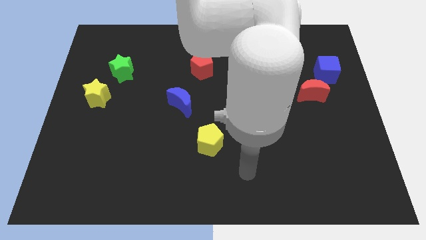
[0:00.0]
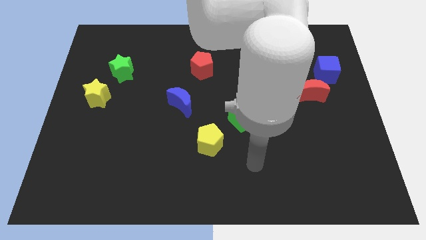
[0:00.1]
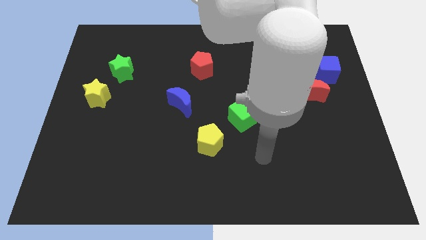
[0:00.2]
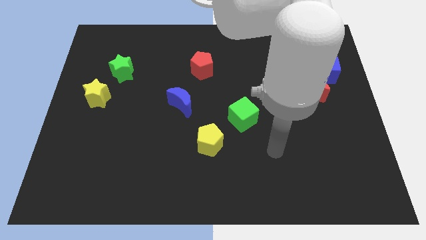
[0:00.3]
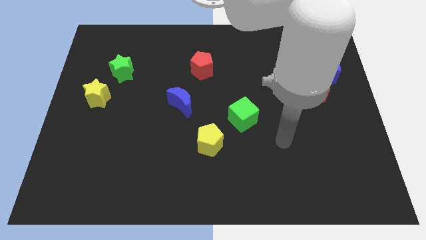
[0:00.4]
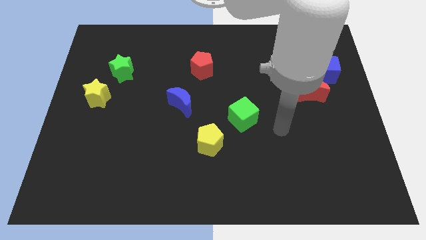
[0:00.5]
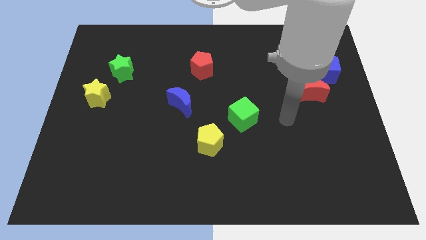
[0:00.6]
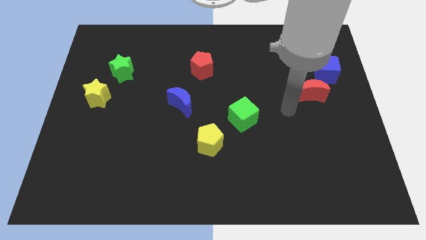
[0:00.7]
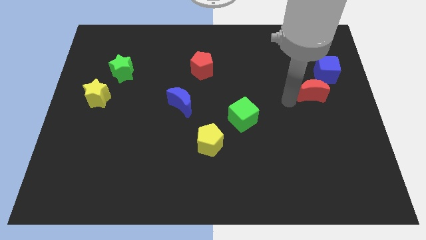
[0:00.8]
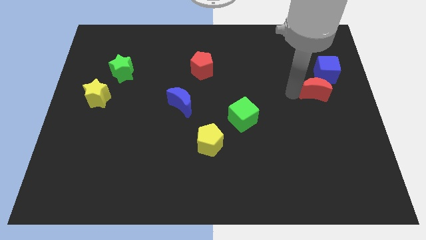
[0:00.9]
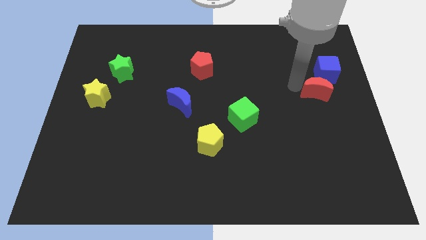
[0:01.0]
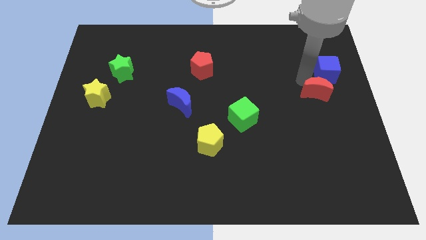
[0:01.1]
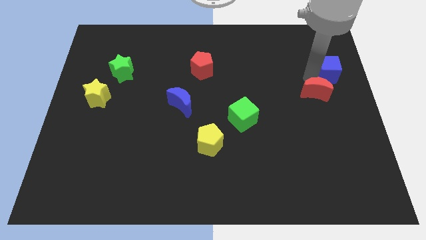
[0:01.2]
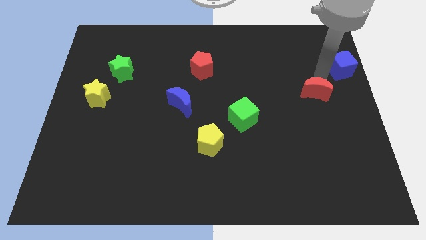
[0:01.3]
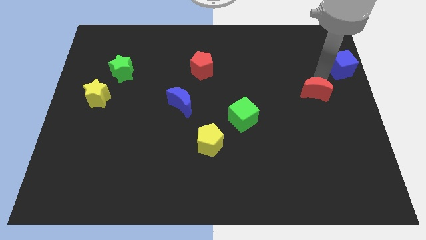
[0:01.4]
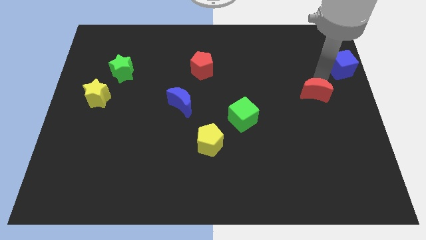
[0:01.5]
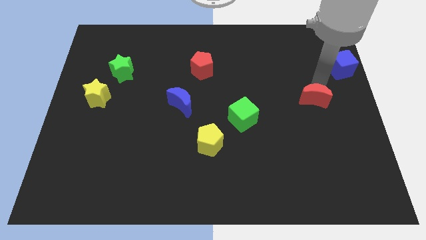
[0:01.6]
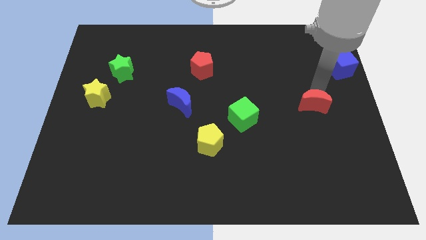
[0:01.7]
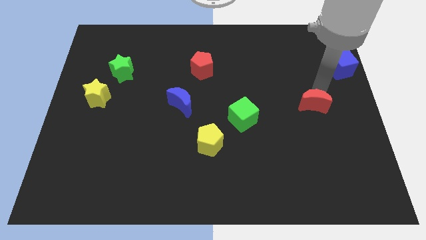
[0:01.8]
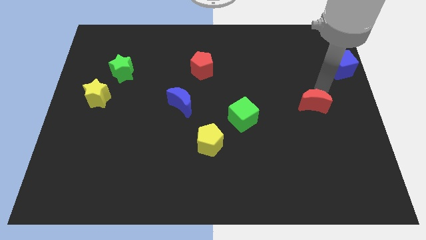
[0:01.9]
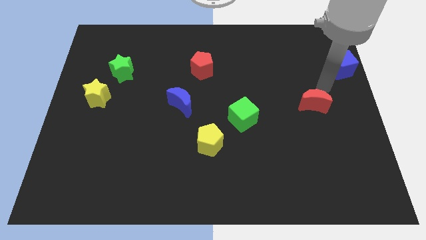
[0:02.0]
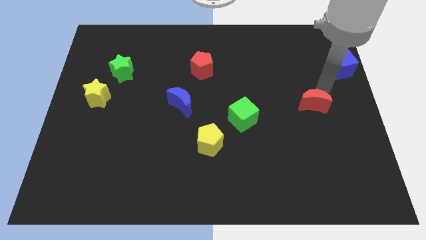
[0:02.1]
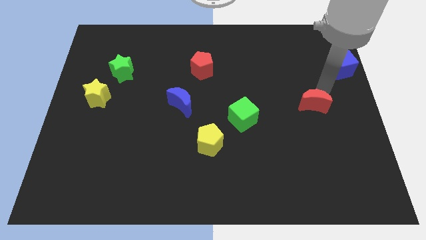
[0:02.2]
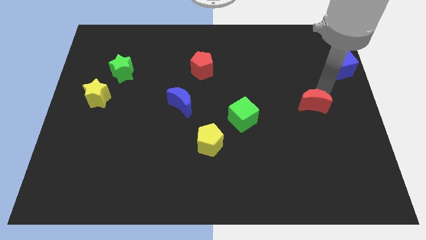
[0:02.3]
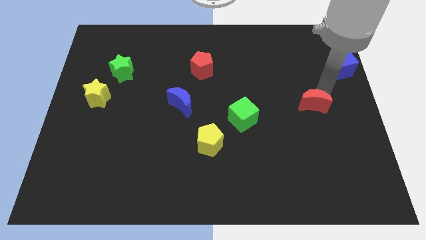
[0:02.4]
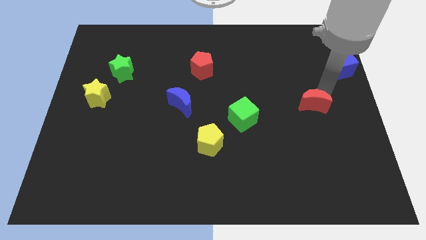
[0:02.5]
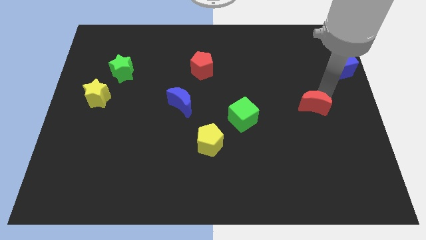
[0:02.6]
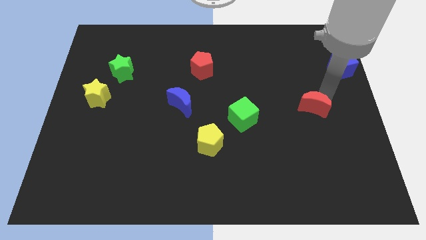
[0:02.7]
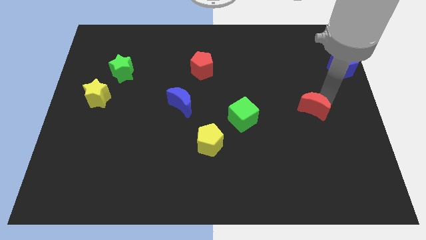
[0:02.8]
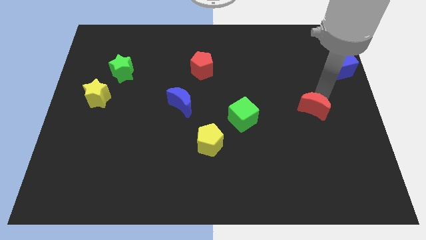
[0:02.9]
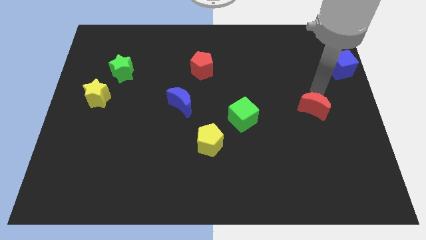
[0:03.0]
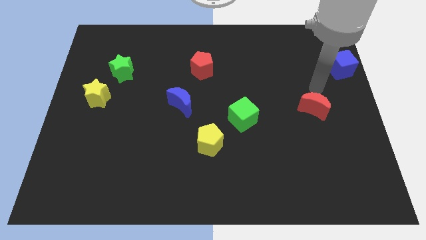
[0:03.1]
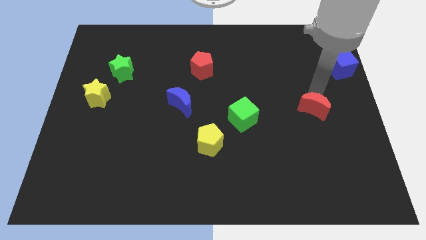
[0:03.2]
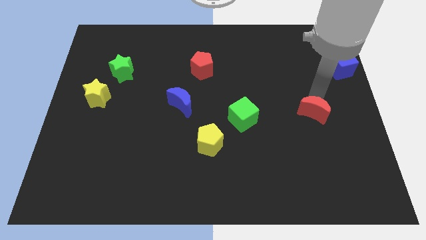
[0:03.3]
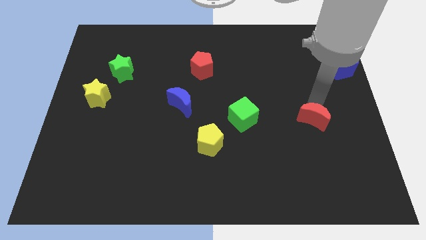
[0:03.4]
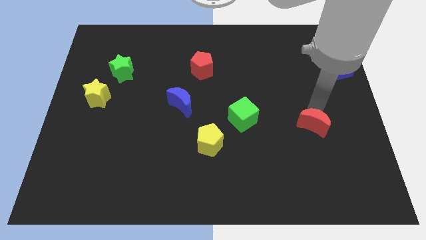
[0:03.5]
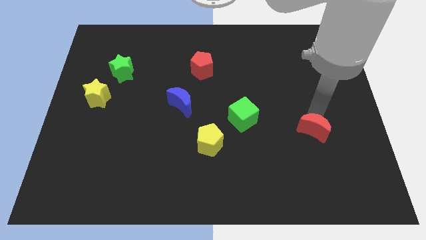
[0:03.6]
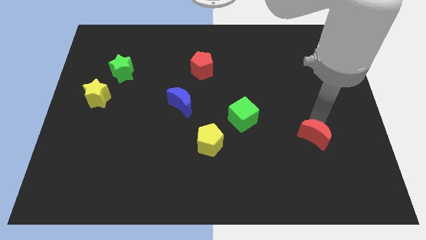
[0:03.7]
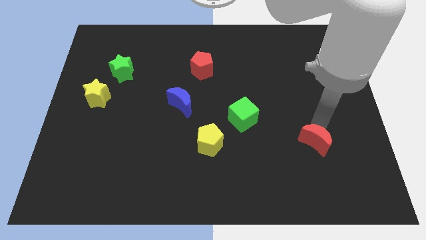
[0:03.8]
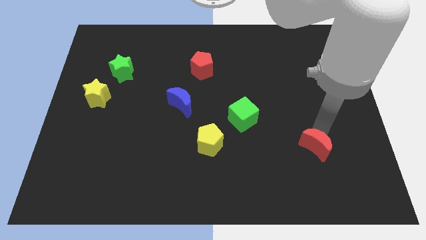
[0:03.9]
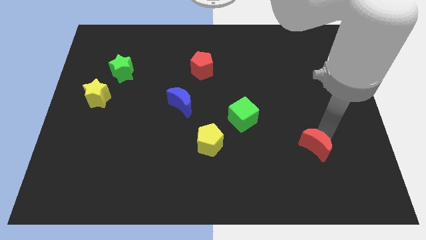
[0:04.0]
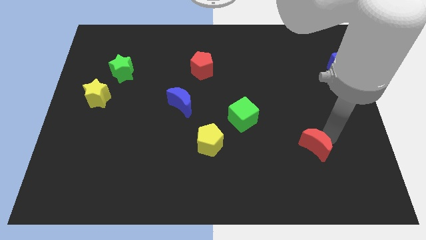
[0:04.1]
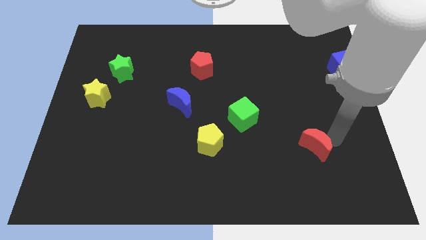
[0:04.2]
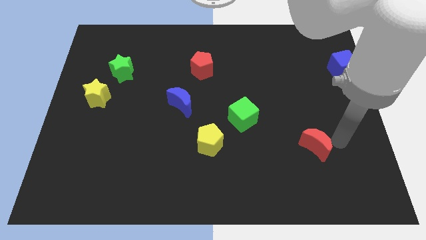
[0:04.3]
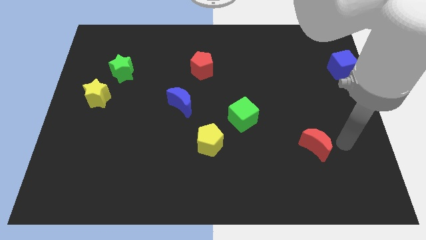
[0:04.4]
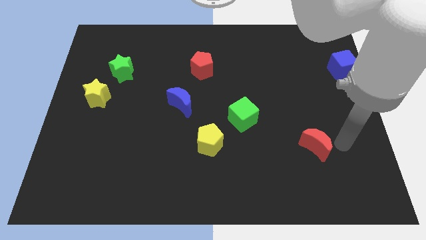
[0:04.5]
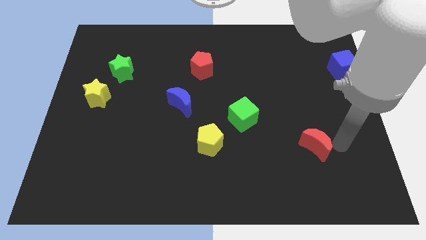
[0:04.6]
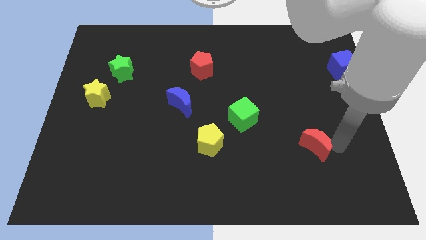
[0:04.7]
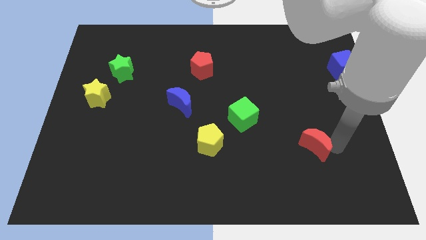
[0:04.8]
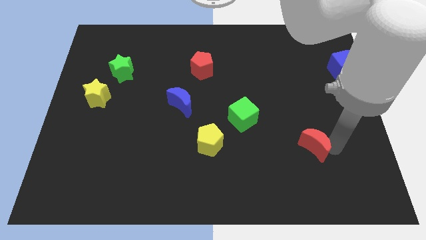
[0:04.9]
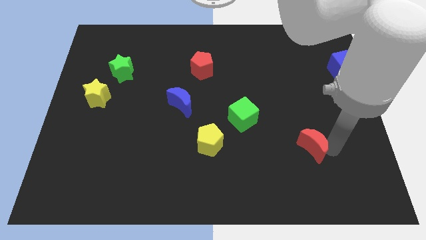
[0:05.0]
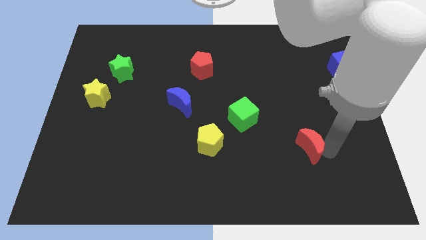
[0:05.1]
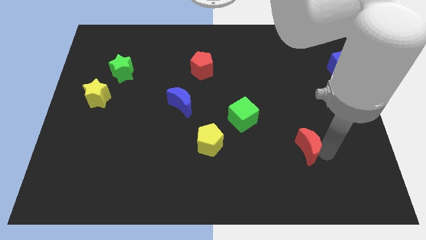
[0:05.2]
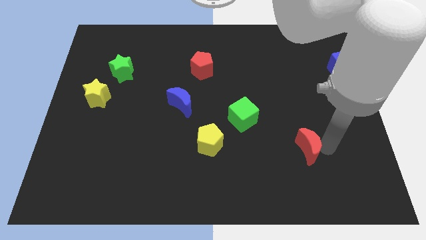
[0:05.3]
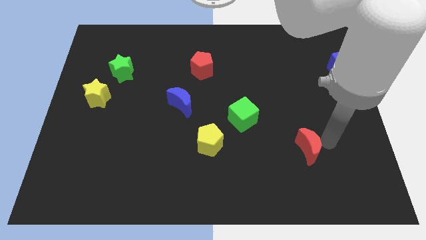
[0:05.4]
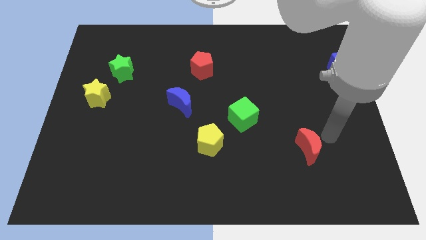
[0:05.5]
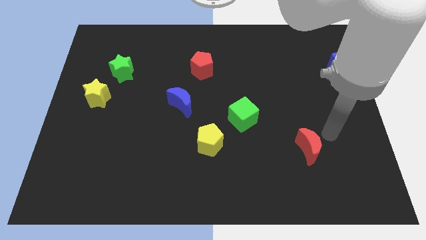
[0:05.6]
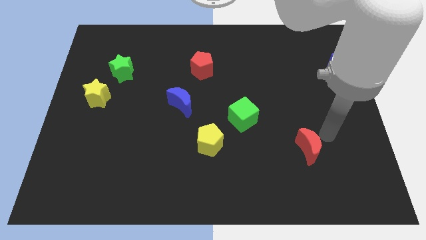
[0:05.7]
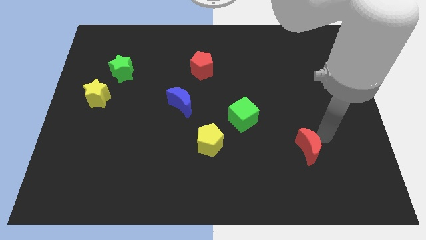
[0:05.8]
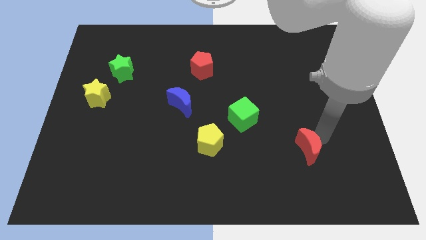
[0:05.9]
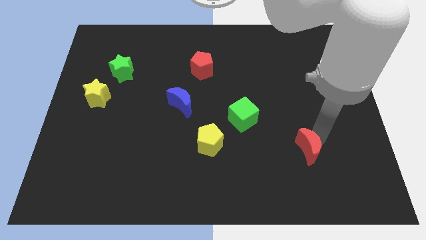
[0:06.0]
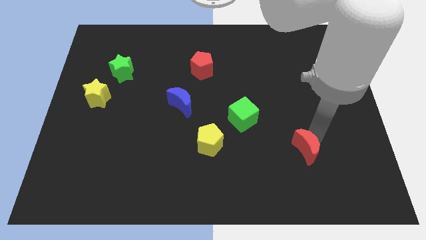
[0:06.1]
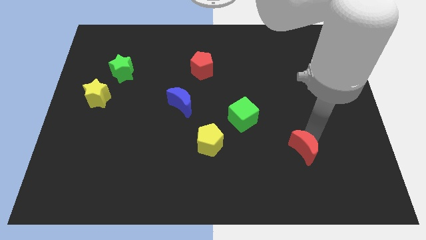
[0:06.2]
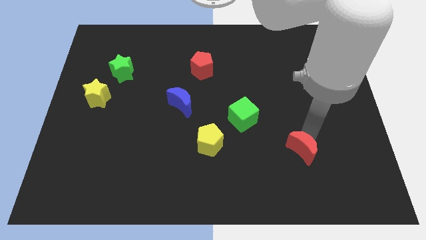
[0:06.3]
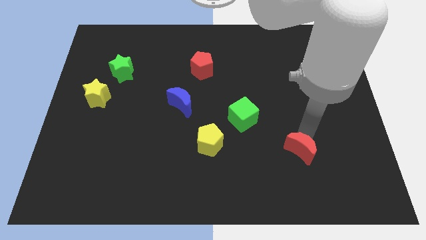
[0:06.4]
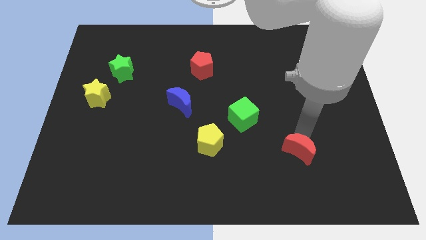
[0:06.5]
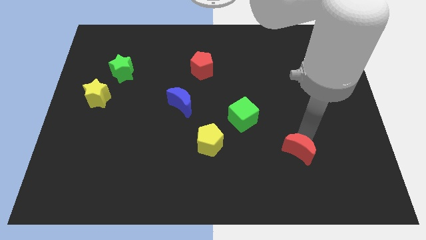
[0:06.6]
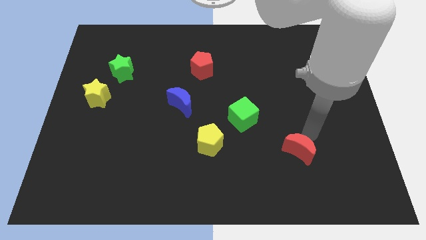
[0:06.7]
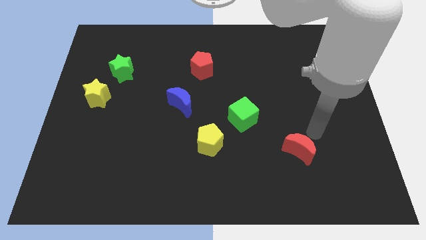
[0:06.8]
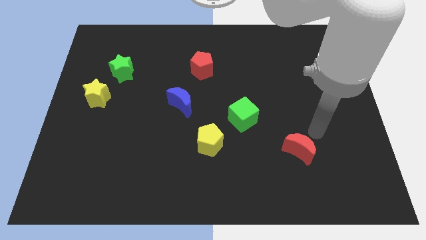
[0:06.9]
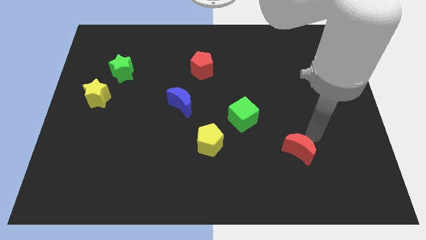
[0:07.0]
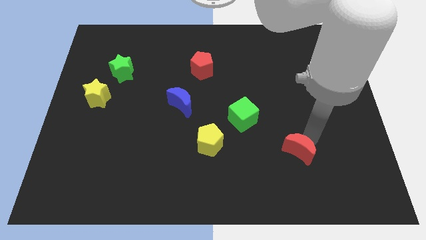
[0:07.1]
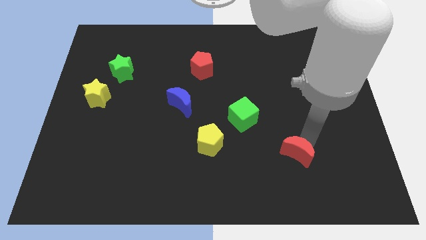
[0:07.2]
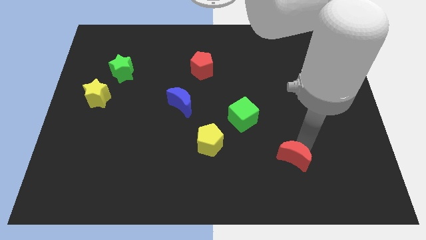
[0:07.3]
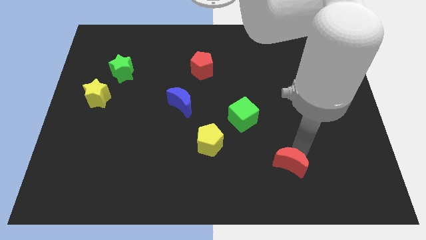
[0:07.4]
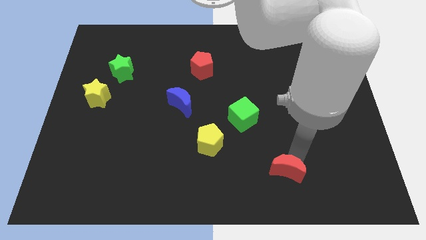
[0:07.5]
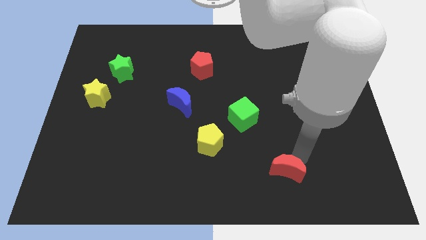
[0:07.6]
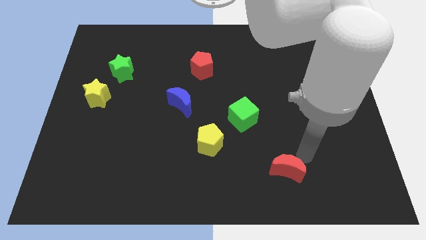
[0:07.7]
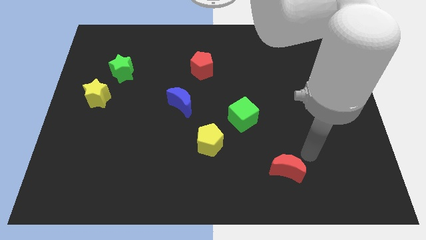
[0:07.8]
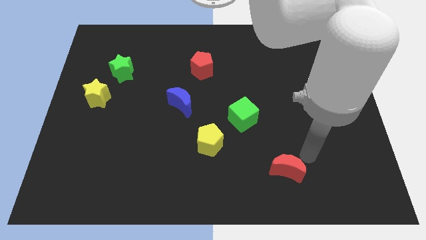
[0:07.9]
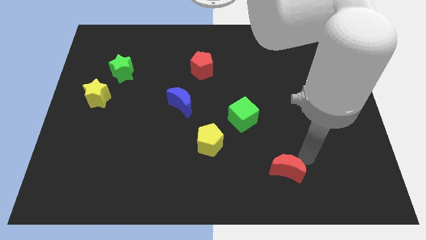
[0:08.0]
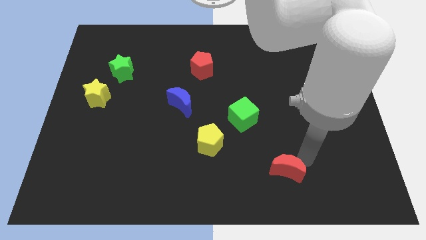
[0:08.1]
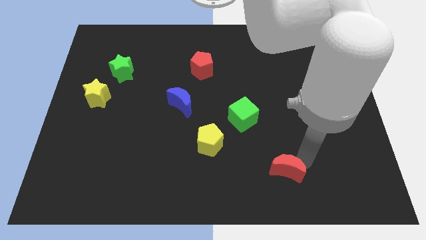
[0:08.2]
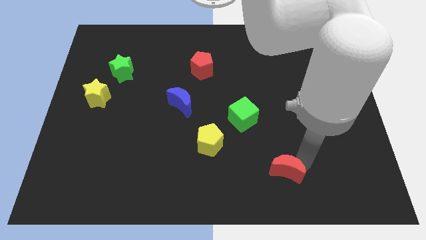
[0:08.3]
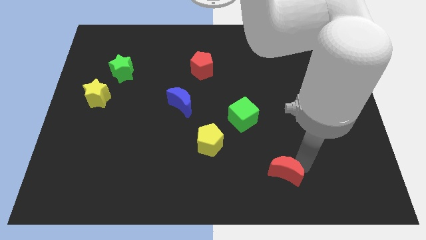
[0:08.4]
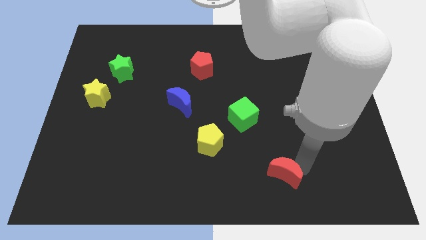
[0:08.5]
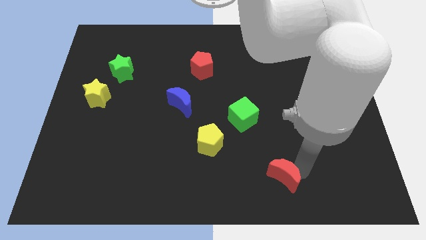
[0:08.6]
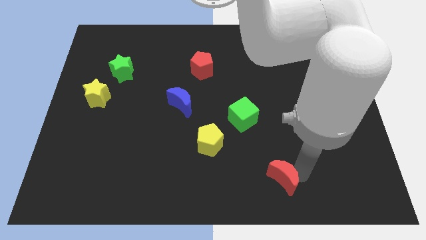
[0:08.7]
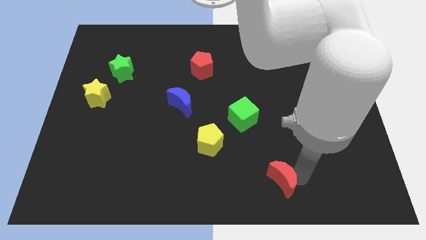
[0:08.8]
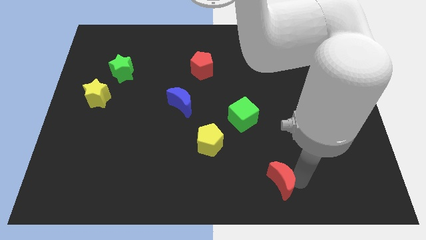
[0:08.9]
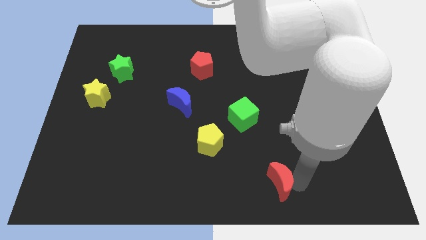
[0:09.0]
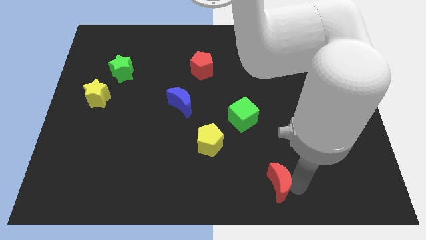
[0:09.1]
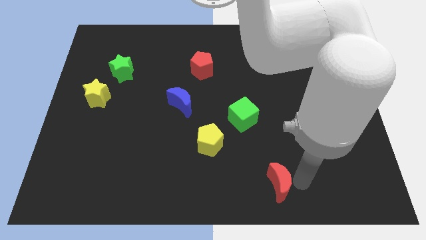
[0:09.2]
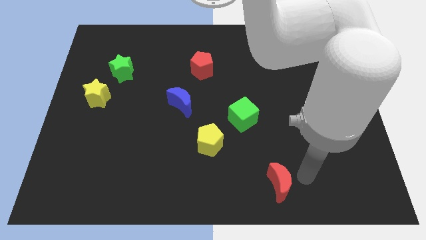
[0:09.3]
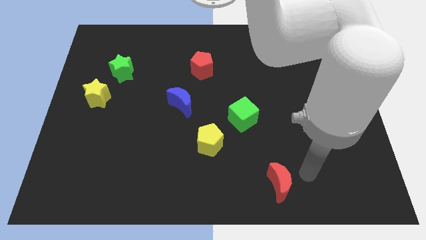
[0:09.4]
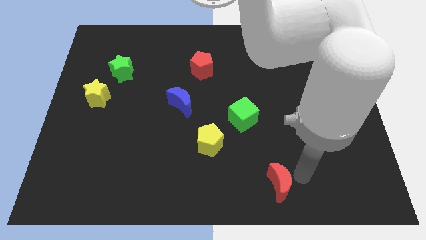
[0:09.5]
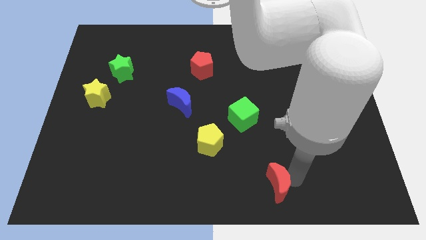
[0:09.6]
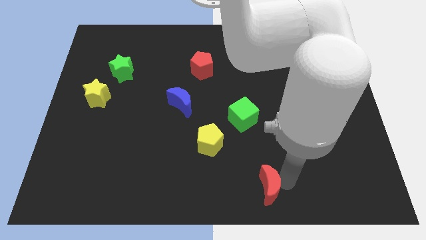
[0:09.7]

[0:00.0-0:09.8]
put the red moon to the bottom
